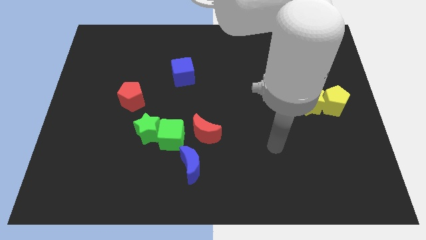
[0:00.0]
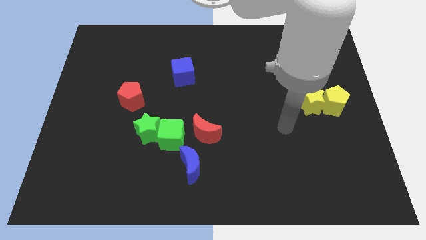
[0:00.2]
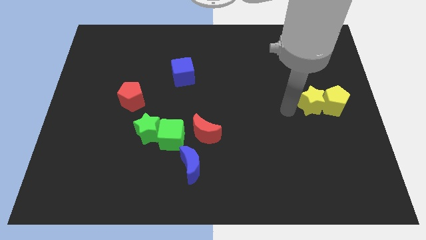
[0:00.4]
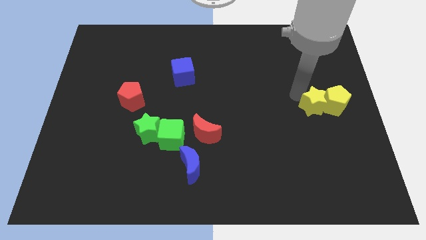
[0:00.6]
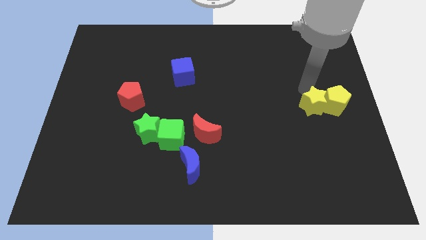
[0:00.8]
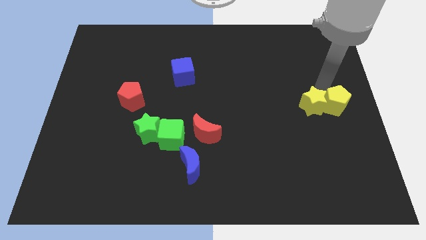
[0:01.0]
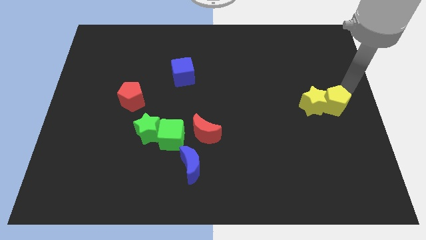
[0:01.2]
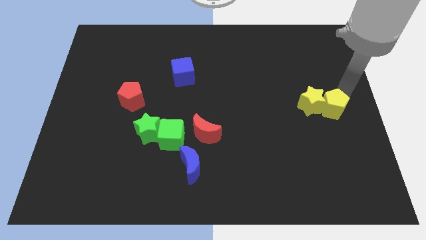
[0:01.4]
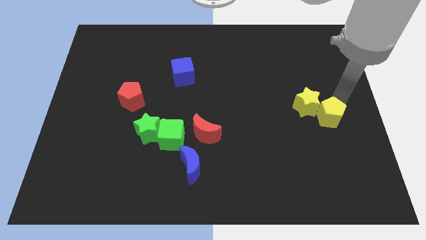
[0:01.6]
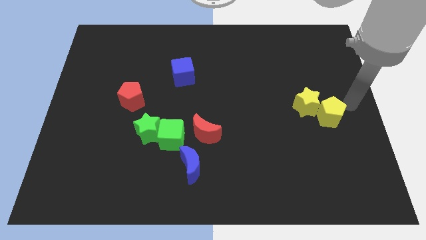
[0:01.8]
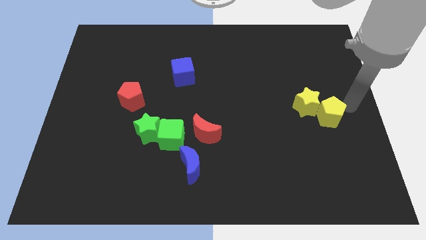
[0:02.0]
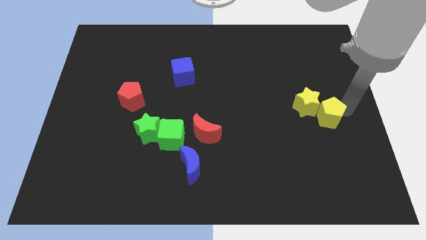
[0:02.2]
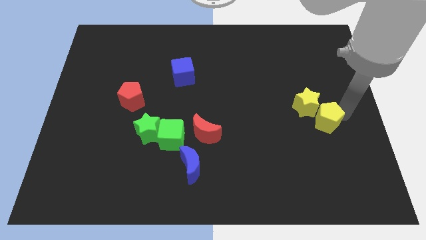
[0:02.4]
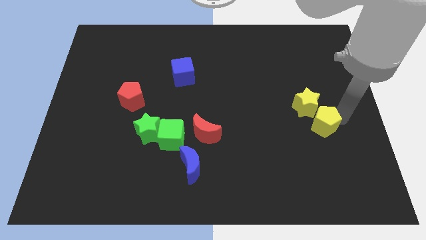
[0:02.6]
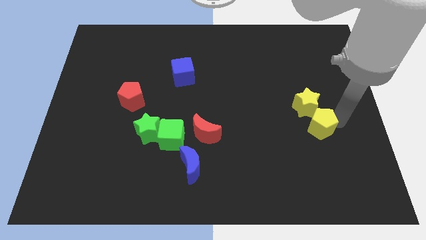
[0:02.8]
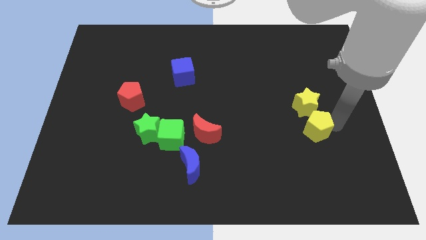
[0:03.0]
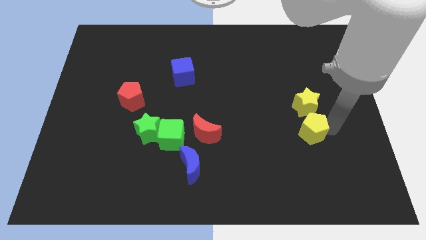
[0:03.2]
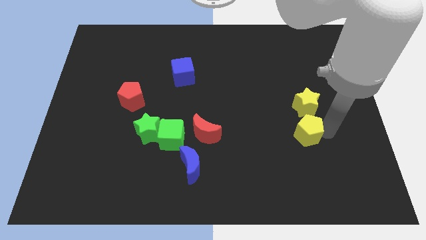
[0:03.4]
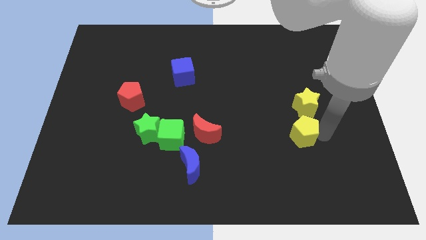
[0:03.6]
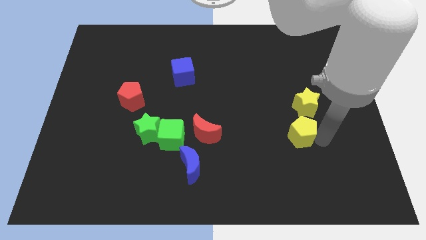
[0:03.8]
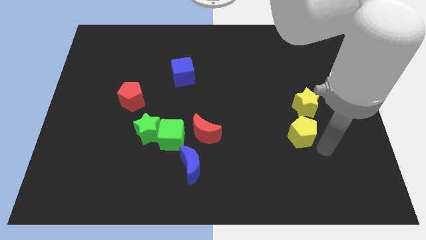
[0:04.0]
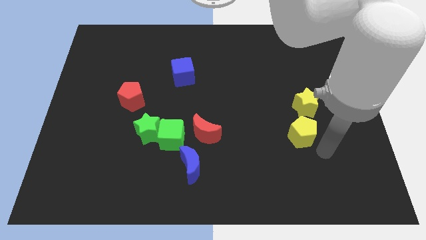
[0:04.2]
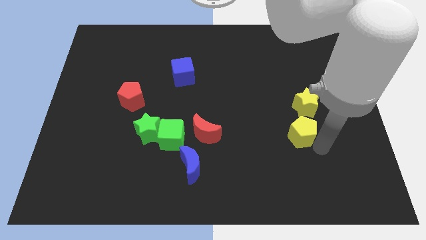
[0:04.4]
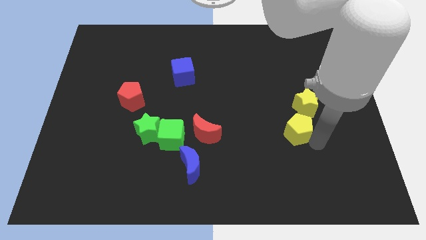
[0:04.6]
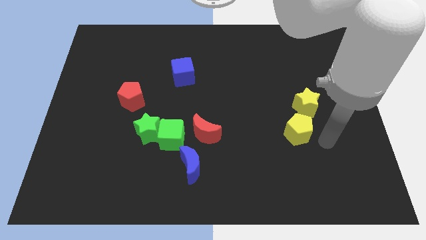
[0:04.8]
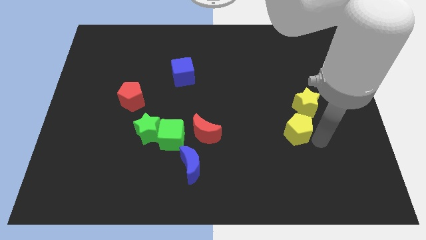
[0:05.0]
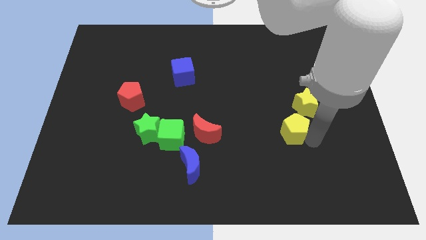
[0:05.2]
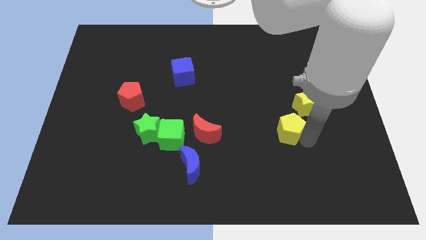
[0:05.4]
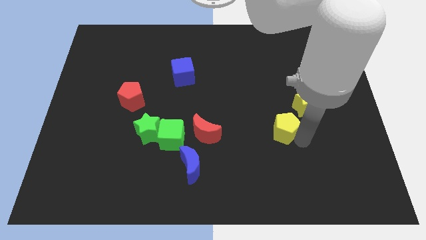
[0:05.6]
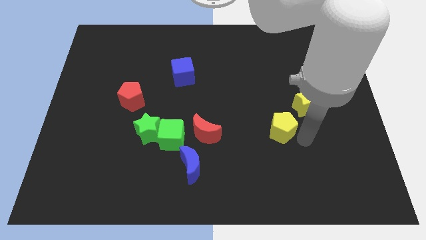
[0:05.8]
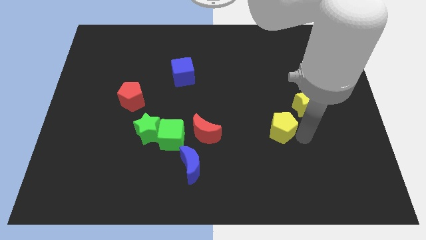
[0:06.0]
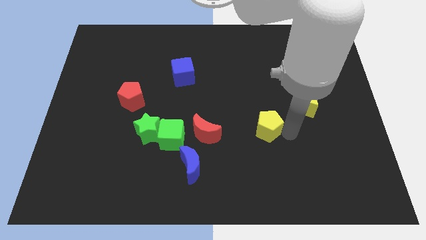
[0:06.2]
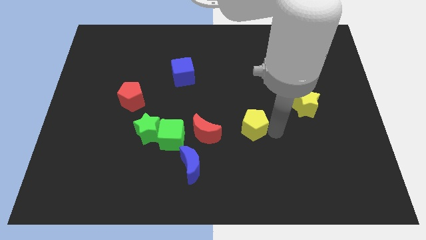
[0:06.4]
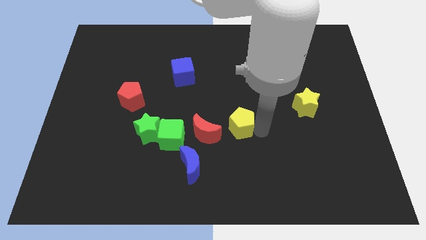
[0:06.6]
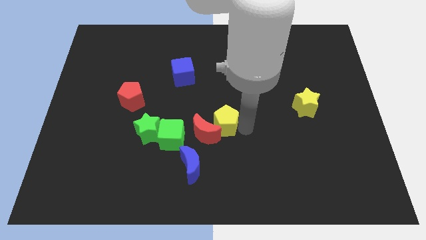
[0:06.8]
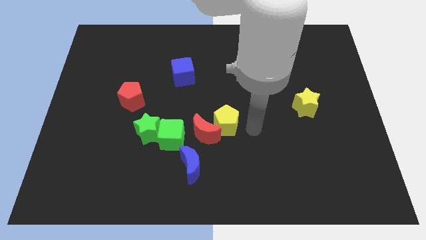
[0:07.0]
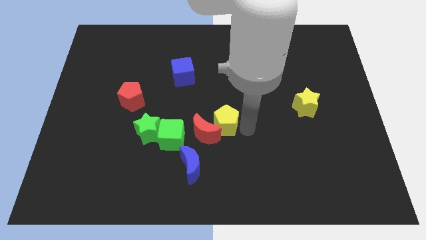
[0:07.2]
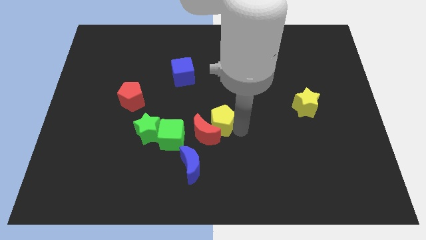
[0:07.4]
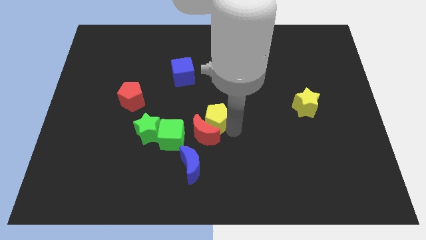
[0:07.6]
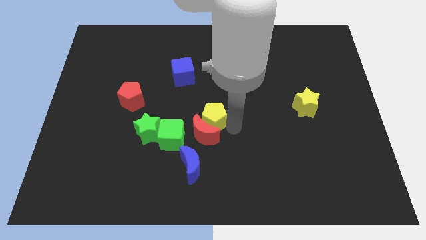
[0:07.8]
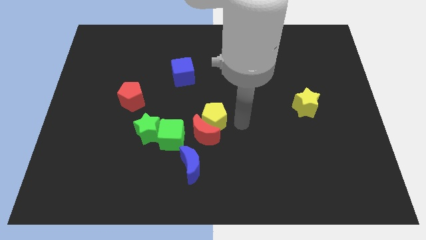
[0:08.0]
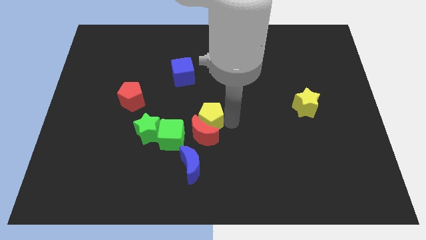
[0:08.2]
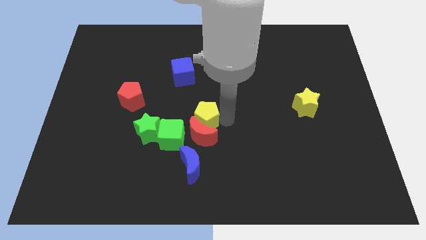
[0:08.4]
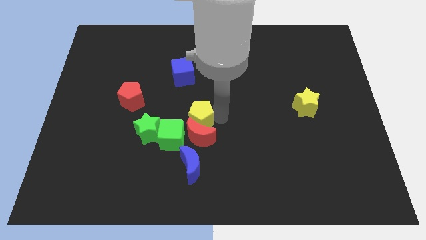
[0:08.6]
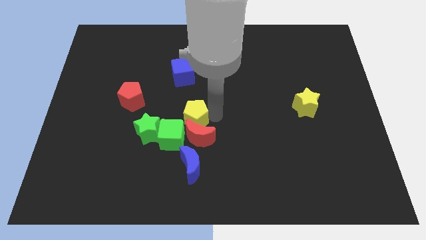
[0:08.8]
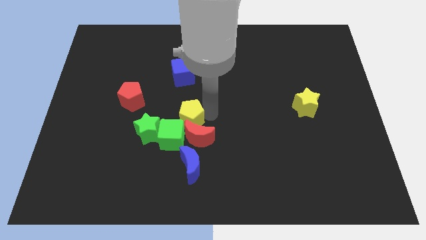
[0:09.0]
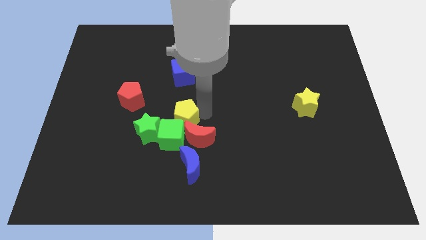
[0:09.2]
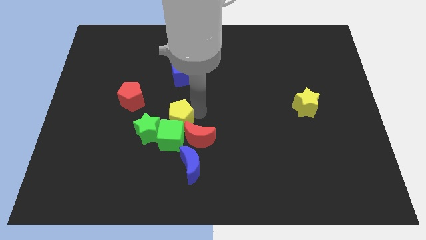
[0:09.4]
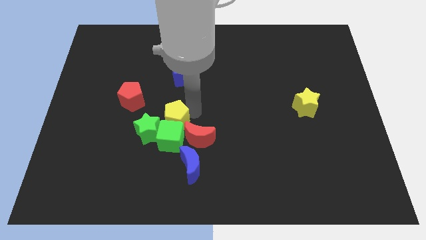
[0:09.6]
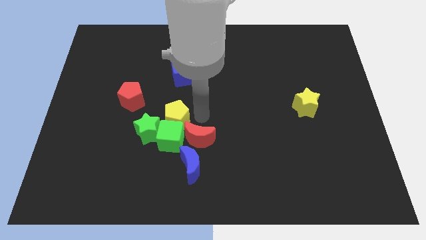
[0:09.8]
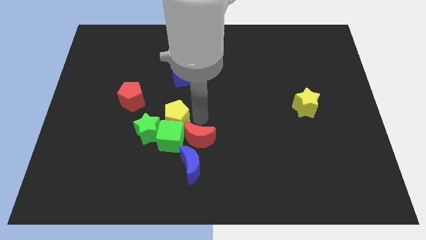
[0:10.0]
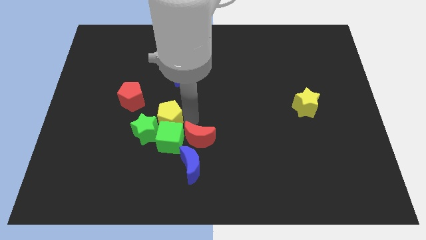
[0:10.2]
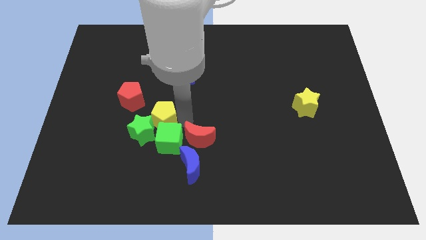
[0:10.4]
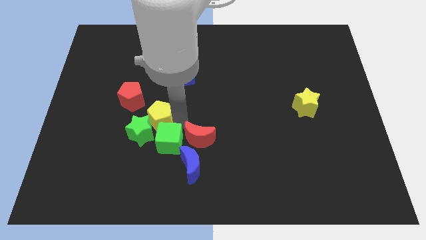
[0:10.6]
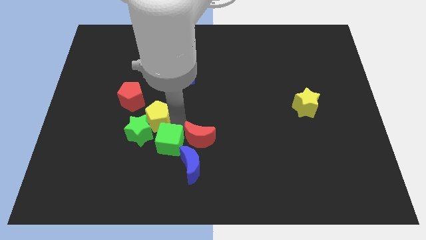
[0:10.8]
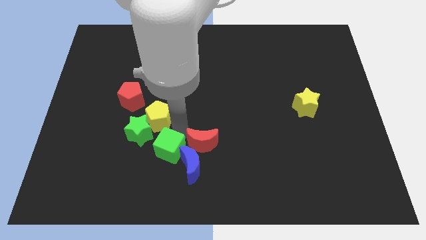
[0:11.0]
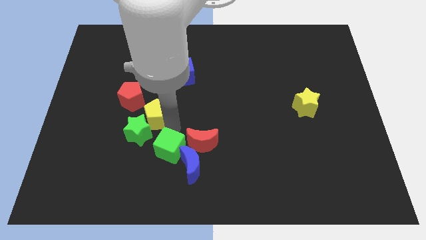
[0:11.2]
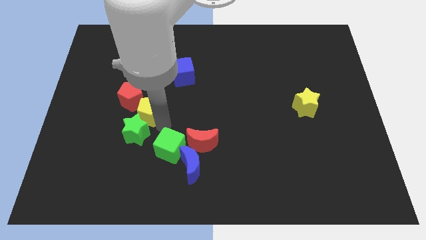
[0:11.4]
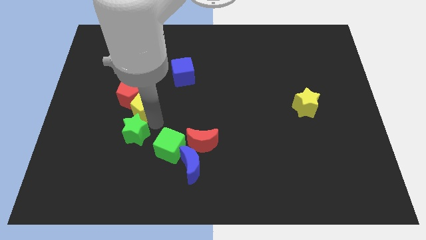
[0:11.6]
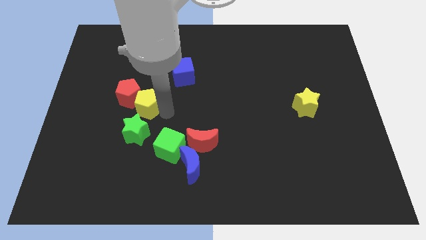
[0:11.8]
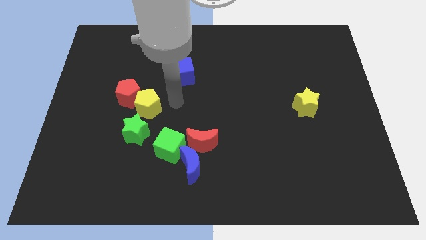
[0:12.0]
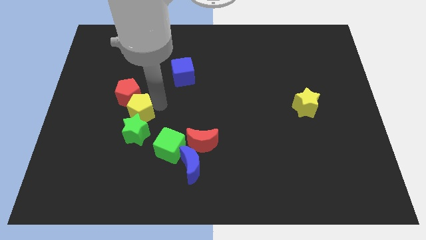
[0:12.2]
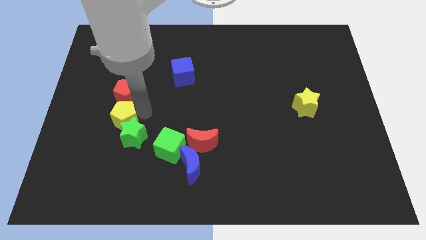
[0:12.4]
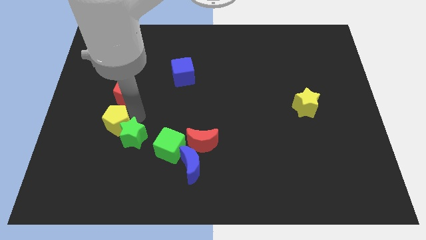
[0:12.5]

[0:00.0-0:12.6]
put the yellow pentagon to the bottom left side of the red pentagon

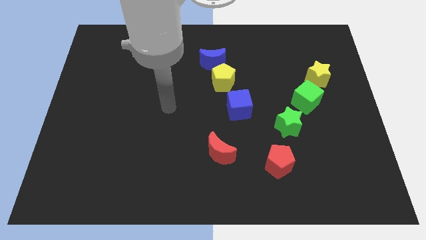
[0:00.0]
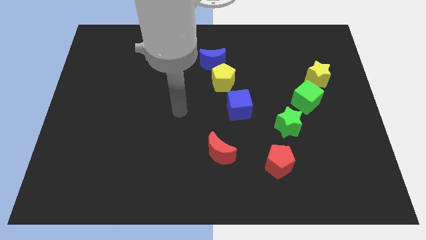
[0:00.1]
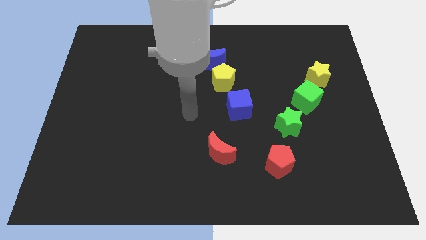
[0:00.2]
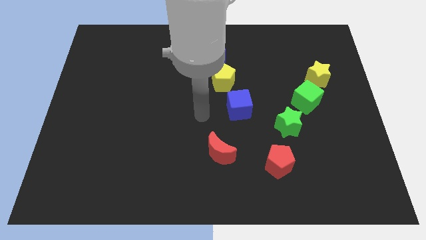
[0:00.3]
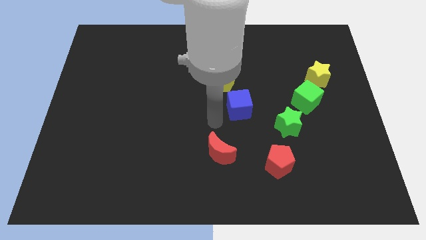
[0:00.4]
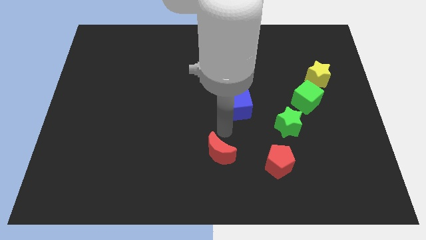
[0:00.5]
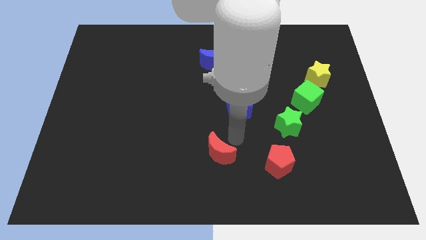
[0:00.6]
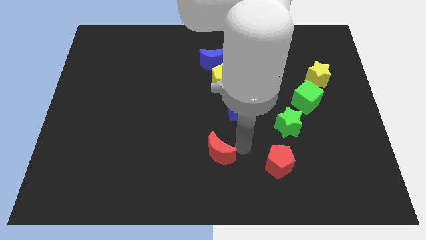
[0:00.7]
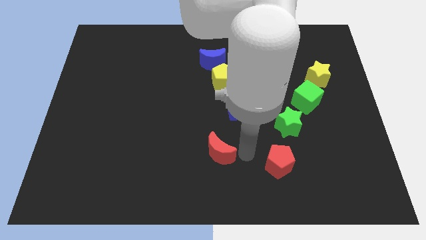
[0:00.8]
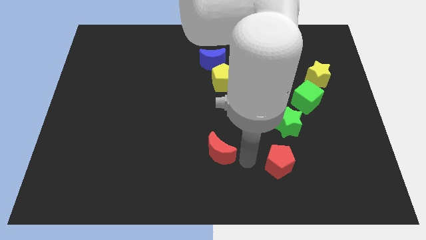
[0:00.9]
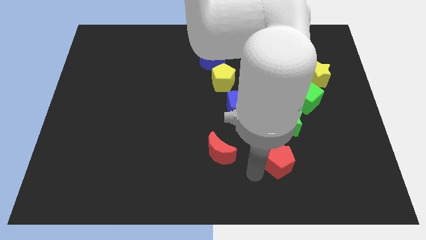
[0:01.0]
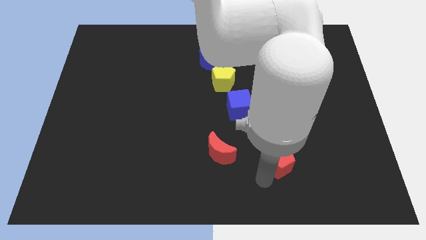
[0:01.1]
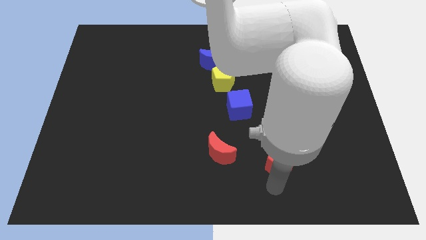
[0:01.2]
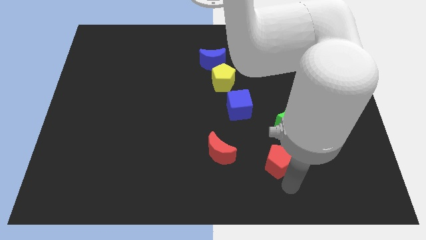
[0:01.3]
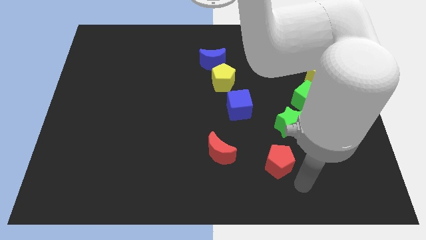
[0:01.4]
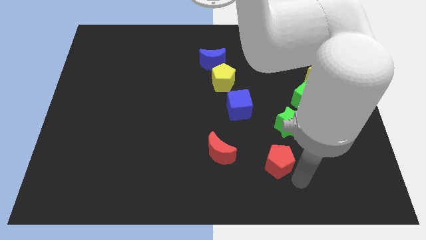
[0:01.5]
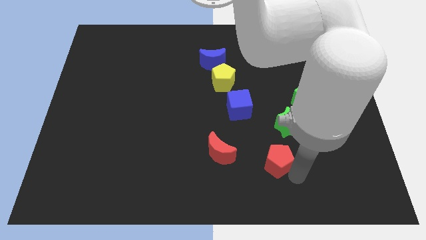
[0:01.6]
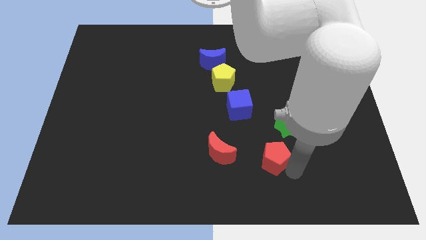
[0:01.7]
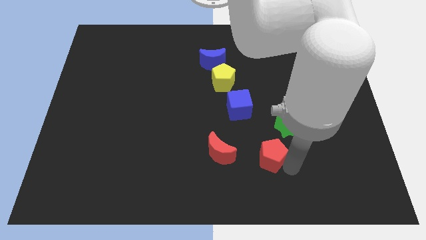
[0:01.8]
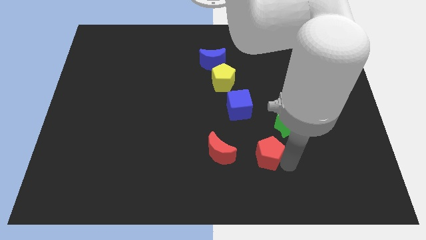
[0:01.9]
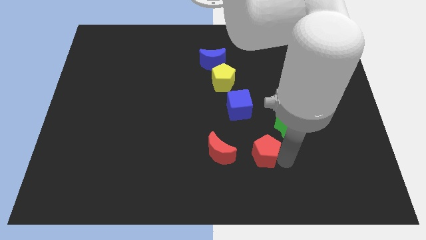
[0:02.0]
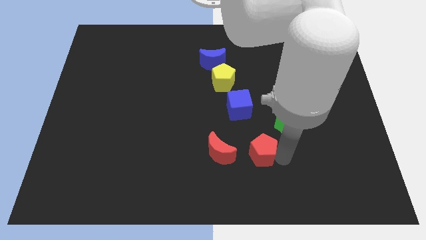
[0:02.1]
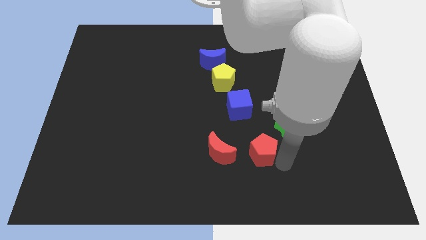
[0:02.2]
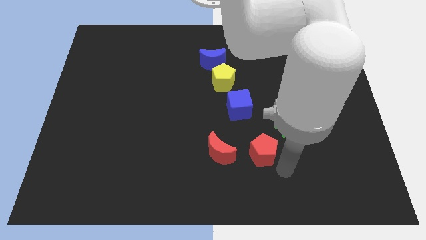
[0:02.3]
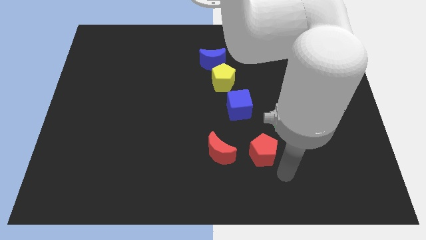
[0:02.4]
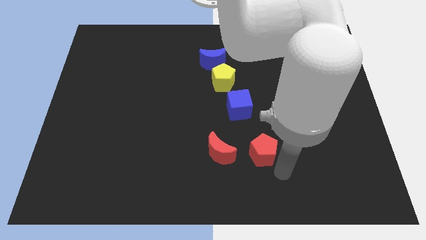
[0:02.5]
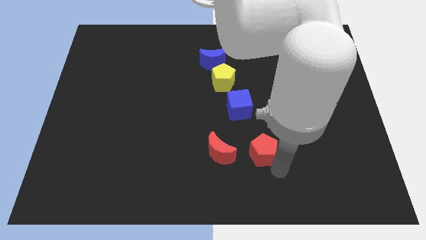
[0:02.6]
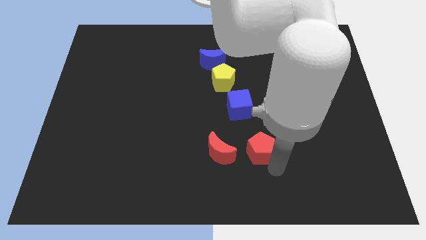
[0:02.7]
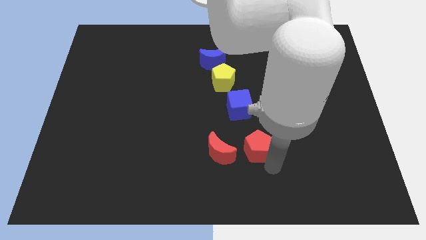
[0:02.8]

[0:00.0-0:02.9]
put the red pentagon to the top right of the red moon
